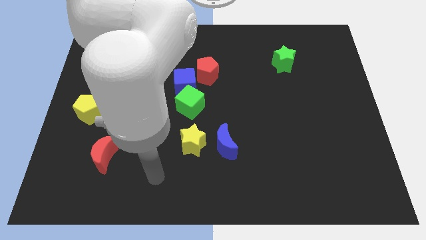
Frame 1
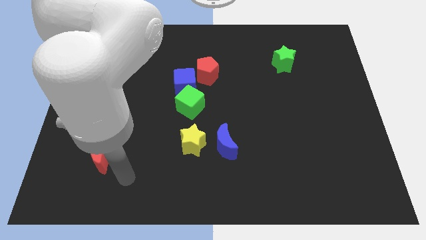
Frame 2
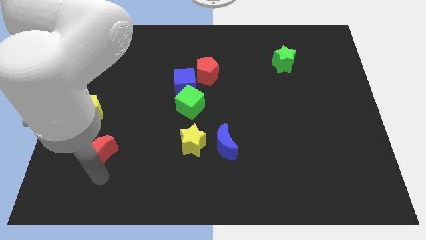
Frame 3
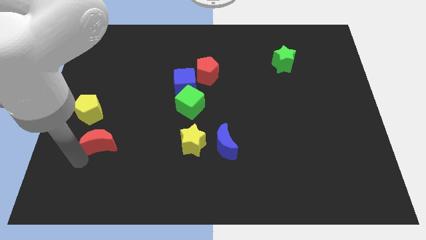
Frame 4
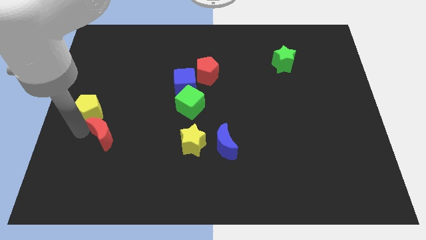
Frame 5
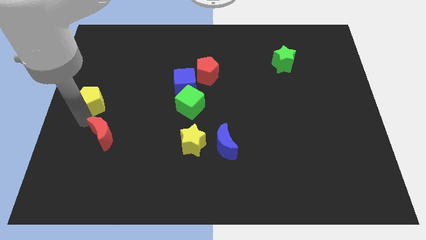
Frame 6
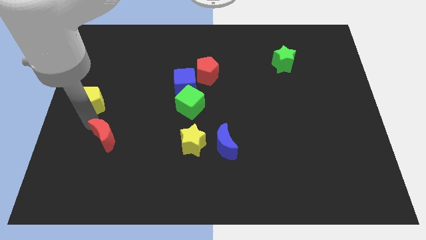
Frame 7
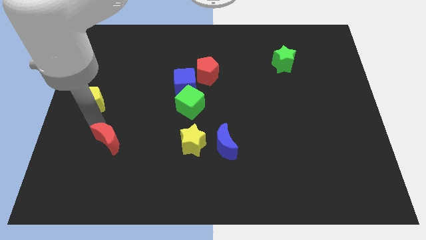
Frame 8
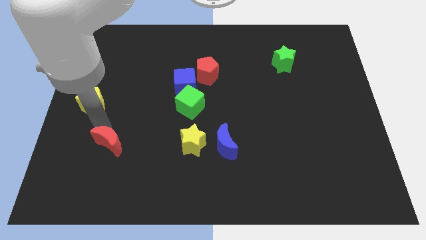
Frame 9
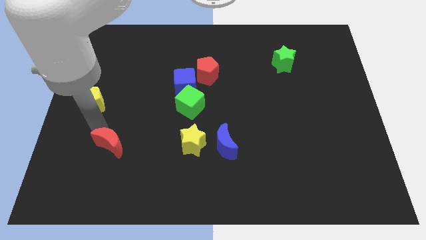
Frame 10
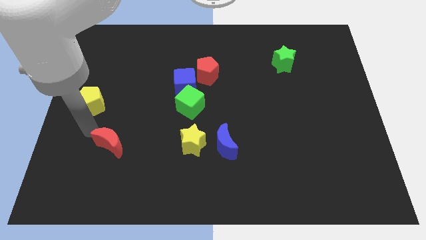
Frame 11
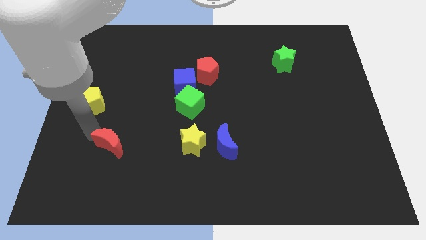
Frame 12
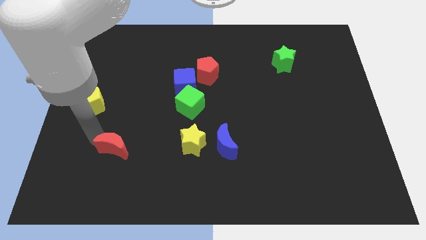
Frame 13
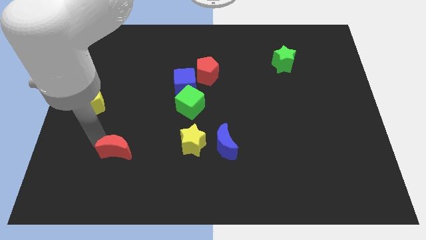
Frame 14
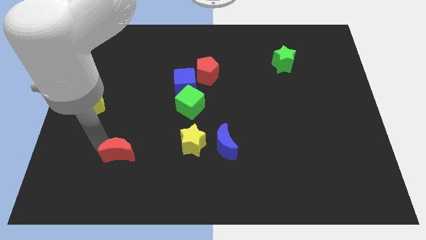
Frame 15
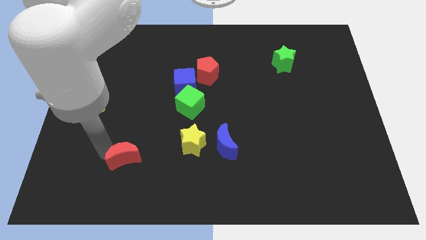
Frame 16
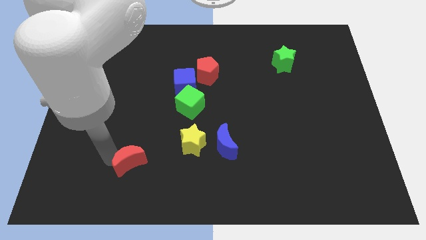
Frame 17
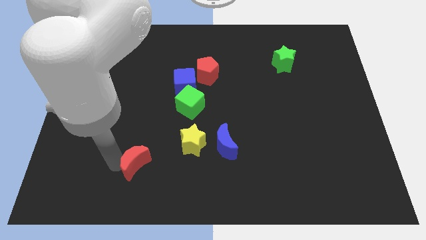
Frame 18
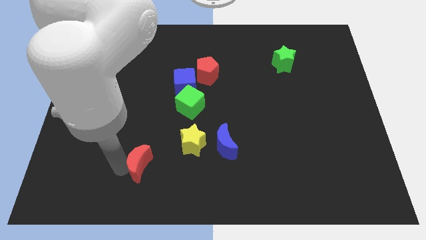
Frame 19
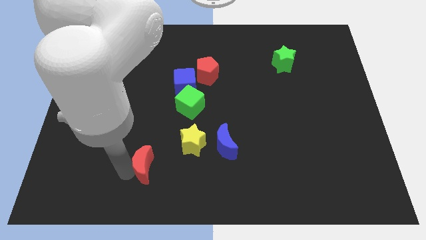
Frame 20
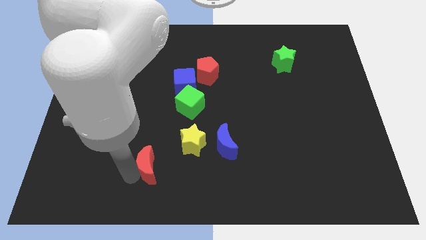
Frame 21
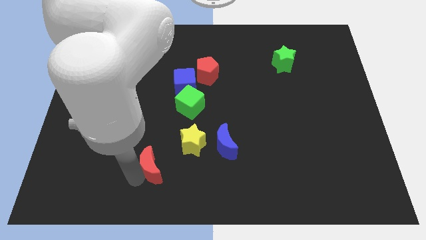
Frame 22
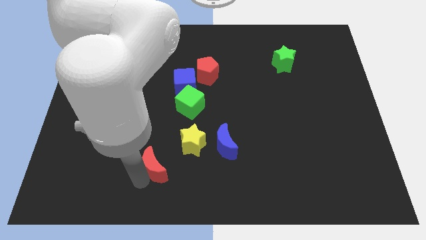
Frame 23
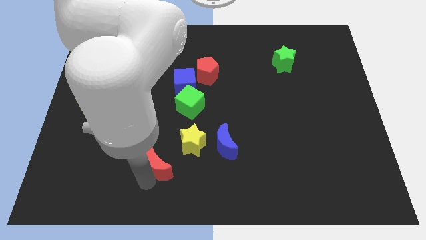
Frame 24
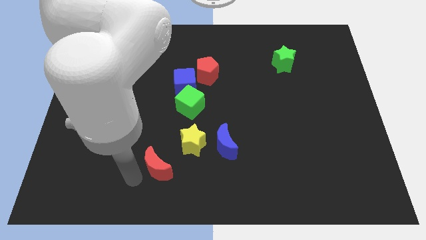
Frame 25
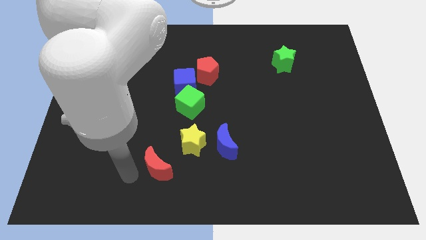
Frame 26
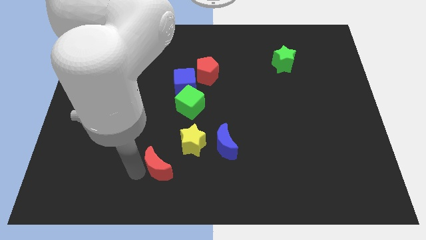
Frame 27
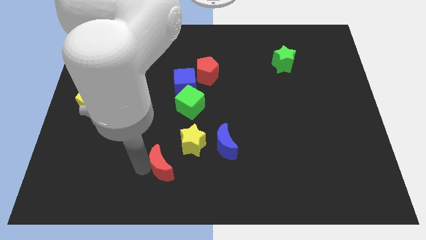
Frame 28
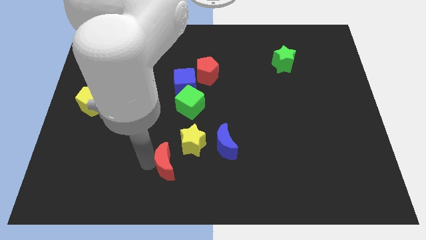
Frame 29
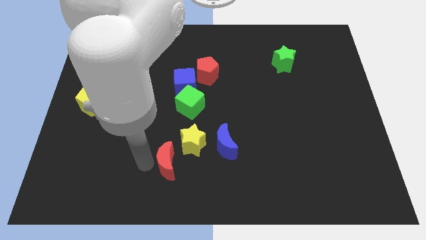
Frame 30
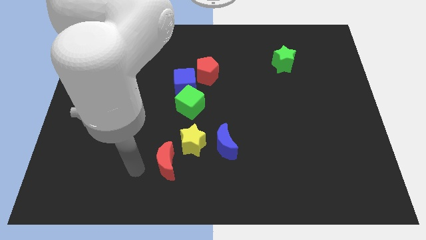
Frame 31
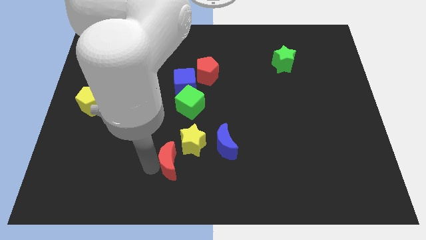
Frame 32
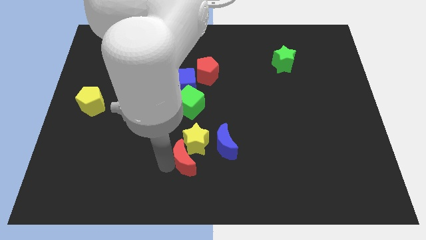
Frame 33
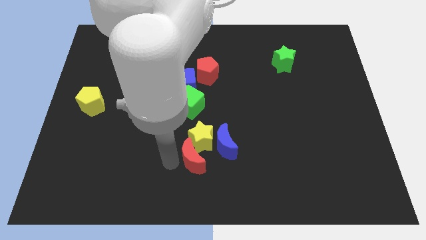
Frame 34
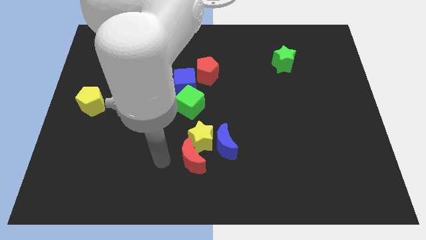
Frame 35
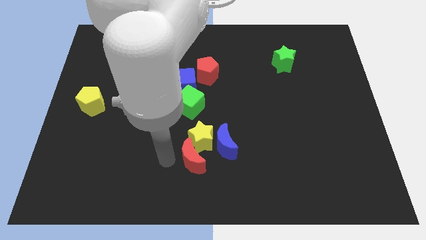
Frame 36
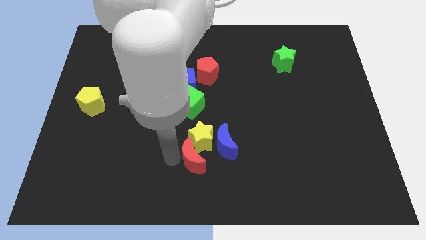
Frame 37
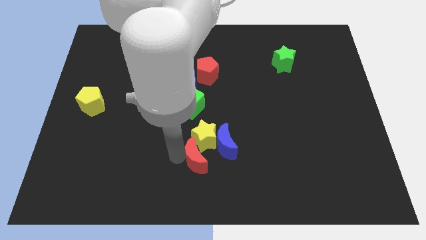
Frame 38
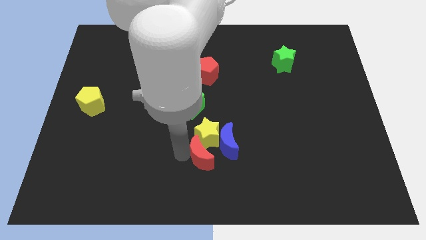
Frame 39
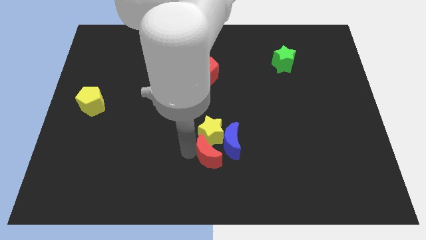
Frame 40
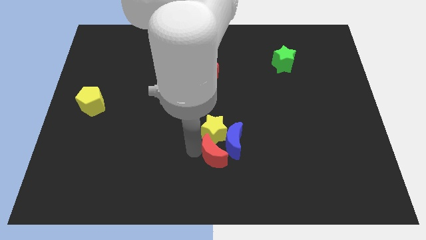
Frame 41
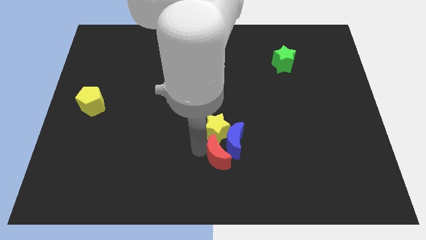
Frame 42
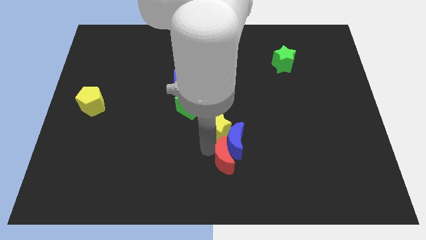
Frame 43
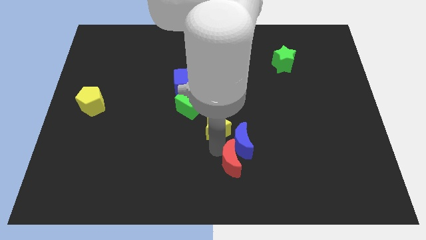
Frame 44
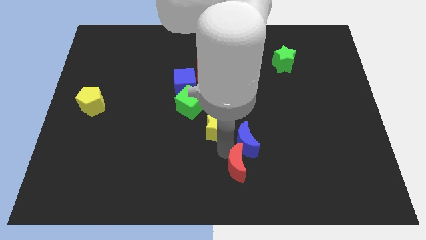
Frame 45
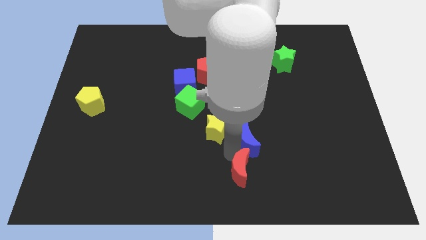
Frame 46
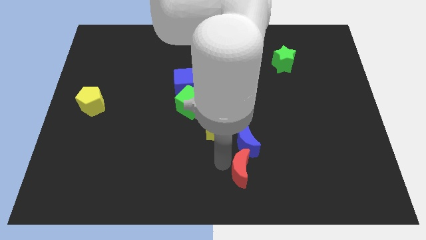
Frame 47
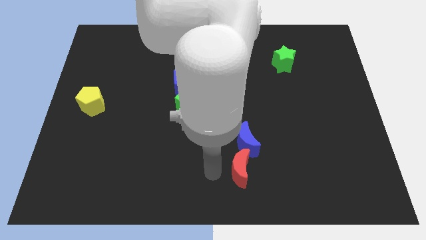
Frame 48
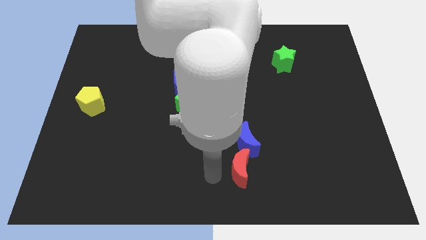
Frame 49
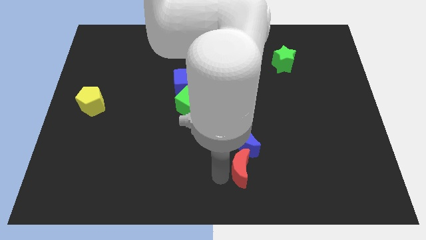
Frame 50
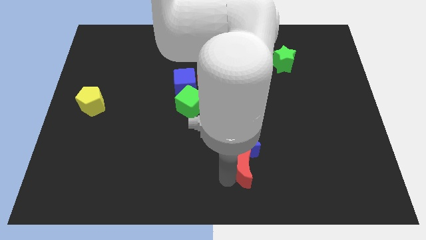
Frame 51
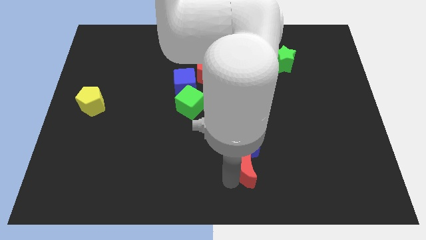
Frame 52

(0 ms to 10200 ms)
move the red moon diagonally down and to the right of the blue moon

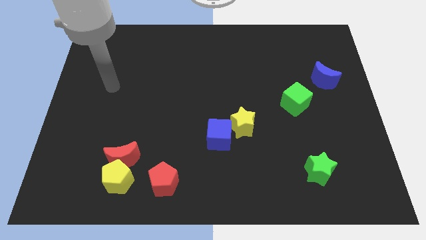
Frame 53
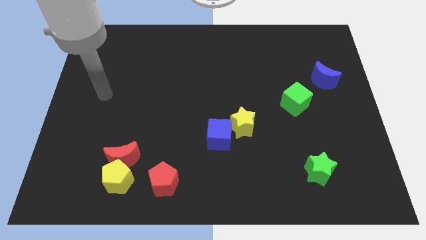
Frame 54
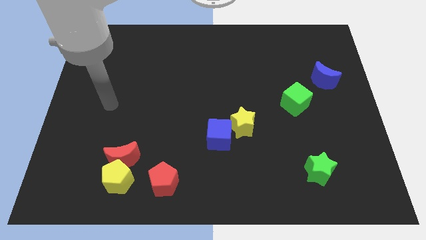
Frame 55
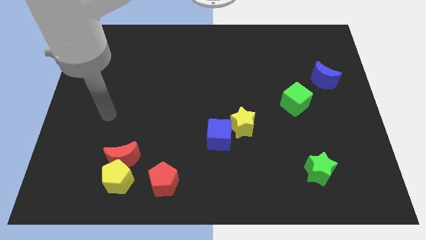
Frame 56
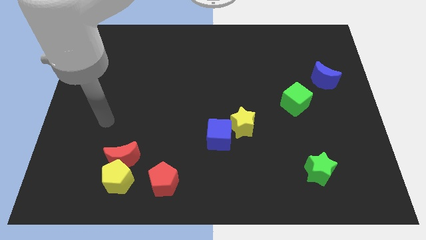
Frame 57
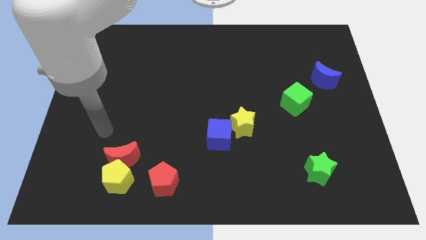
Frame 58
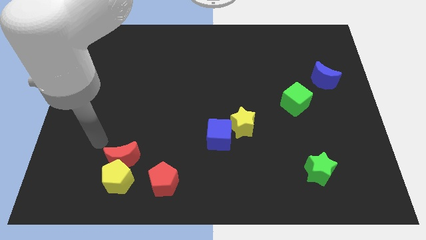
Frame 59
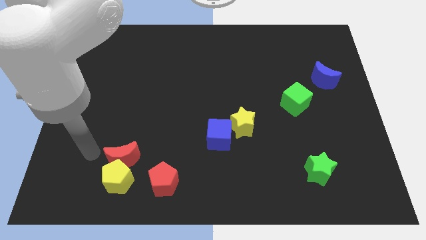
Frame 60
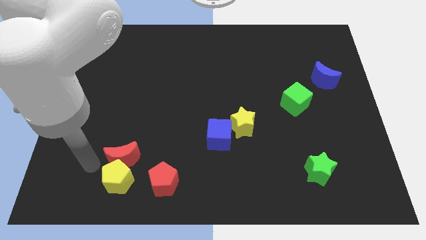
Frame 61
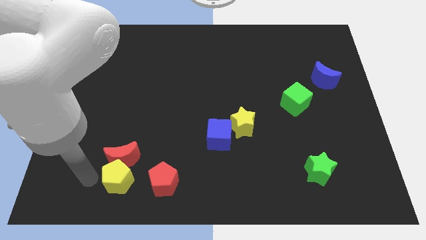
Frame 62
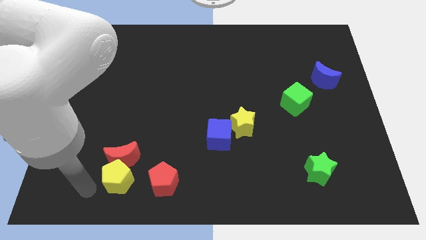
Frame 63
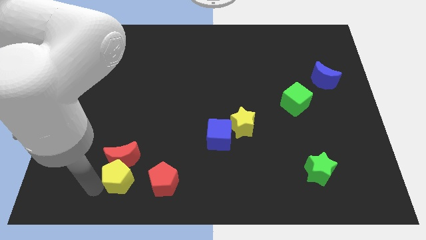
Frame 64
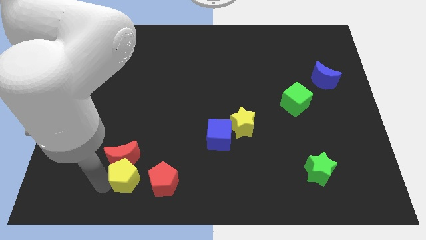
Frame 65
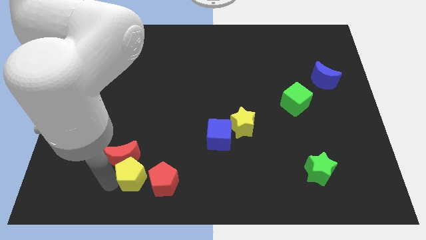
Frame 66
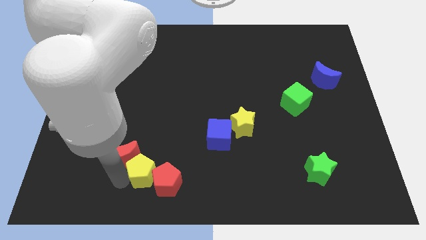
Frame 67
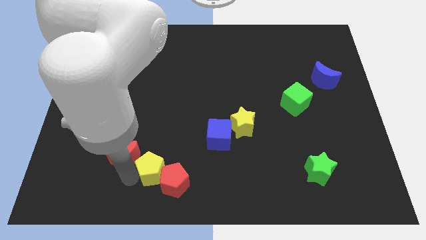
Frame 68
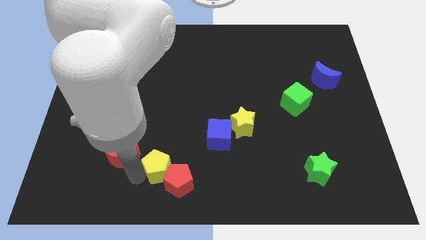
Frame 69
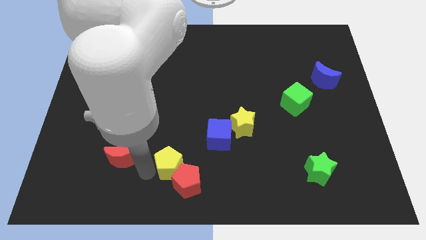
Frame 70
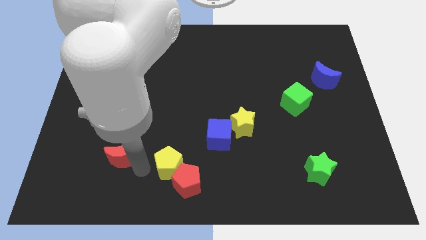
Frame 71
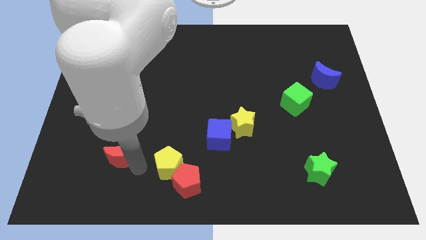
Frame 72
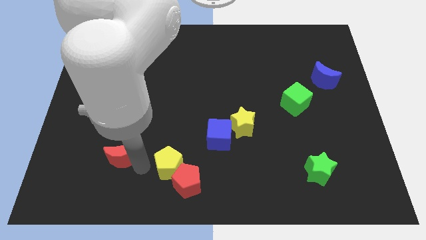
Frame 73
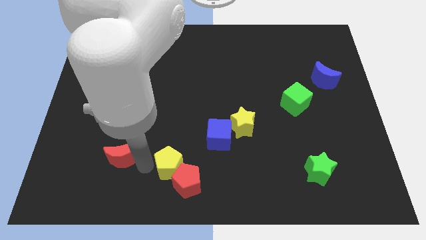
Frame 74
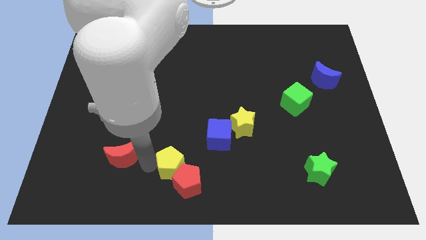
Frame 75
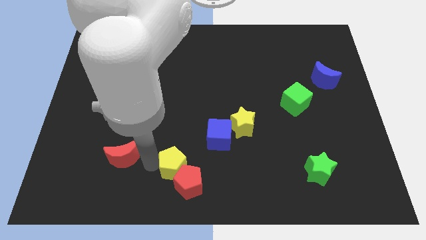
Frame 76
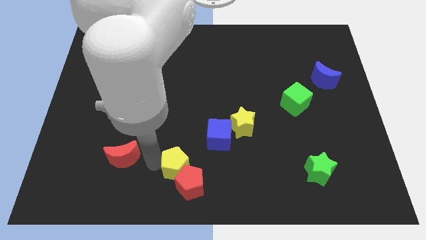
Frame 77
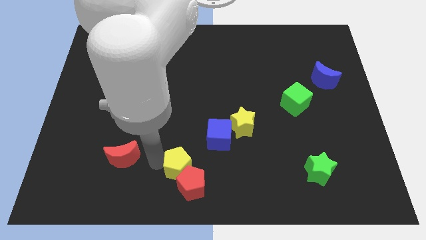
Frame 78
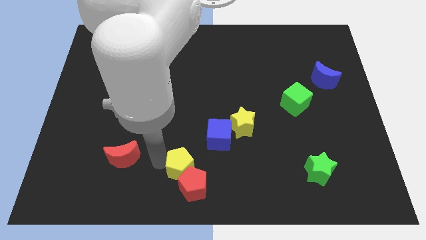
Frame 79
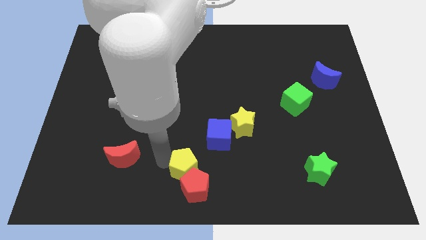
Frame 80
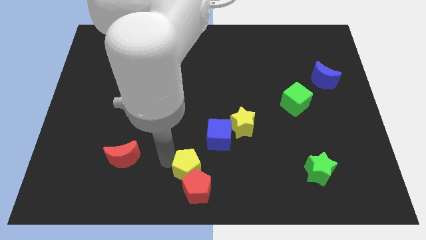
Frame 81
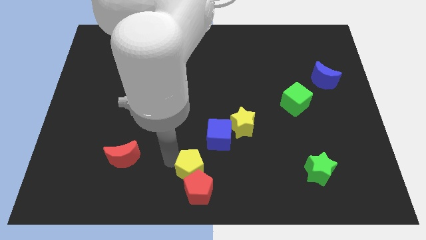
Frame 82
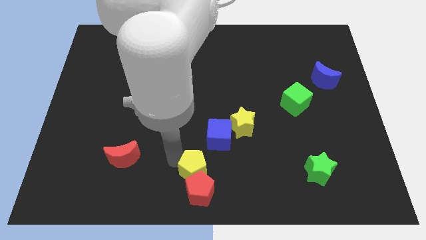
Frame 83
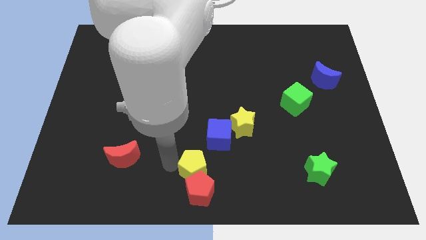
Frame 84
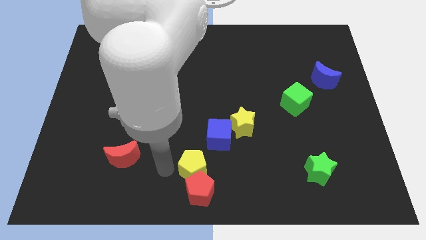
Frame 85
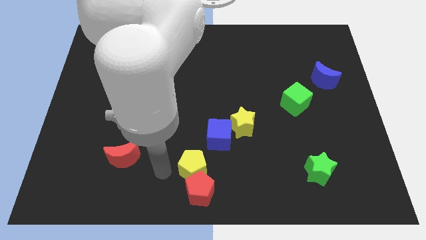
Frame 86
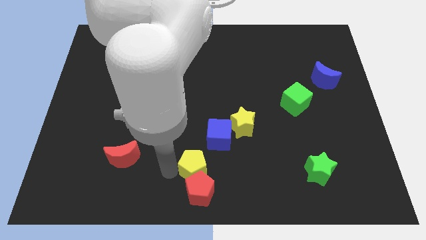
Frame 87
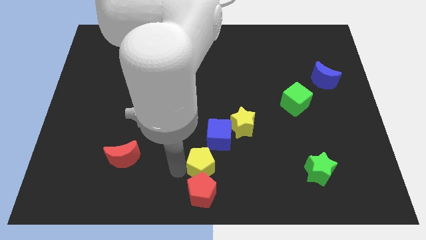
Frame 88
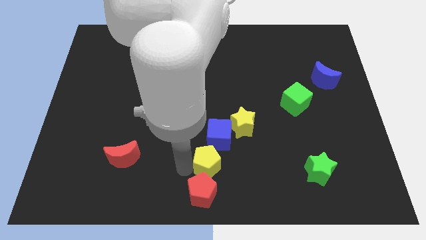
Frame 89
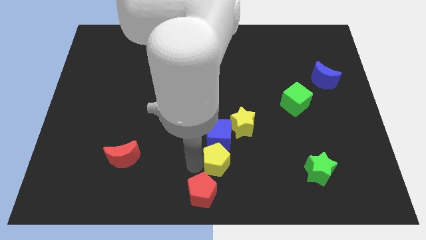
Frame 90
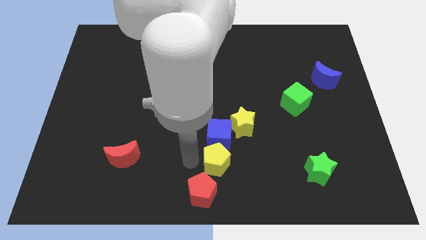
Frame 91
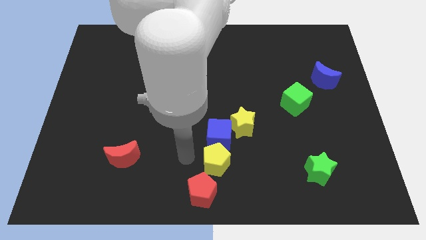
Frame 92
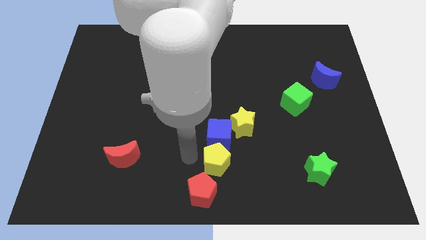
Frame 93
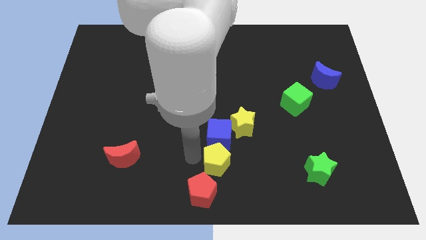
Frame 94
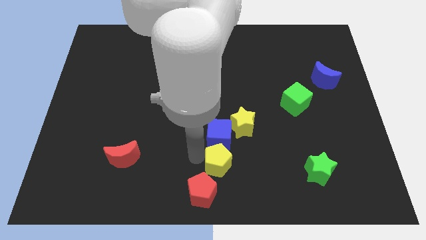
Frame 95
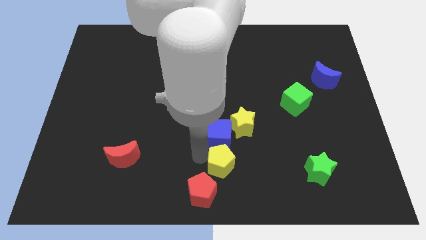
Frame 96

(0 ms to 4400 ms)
slide the yellow pentagon to the bottom of the yellow star
